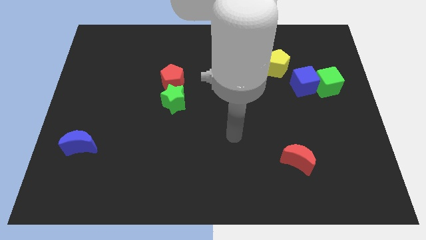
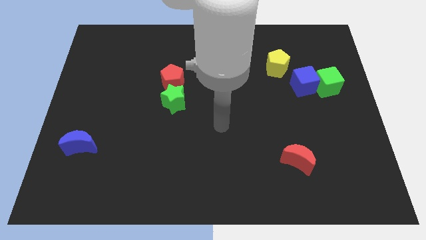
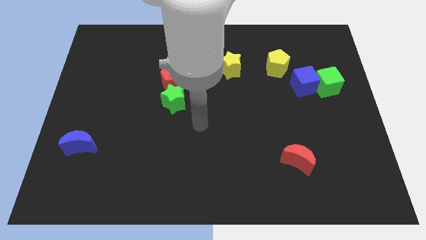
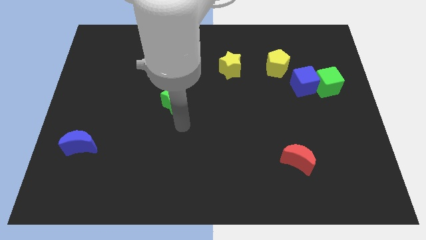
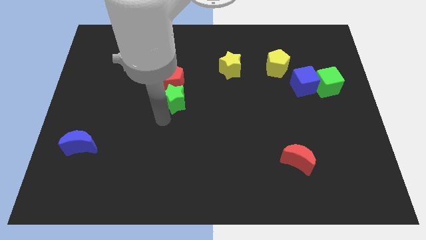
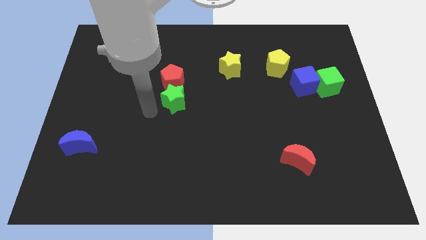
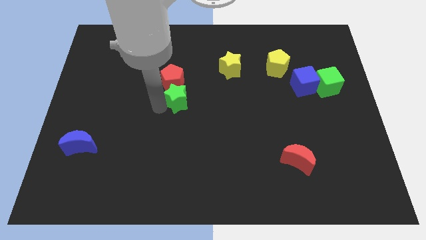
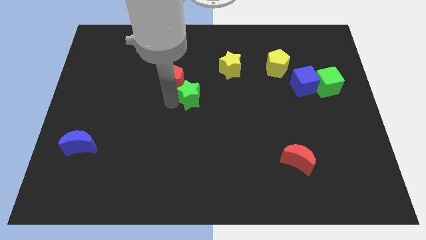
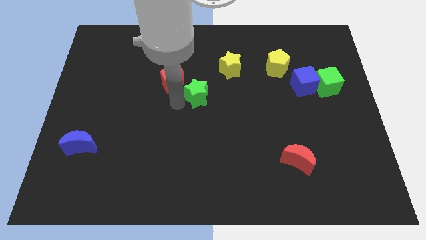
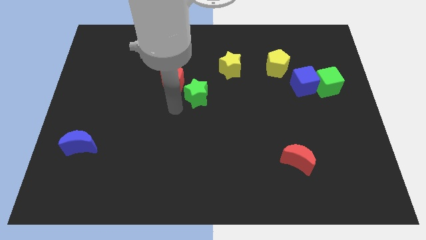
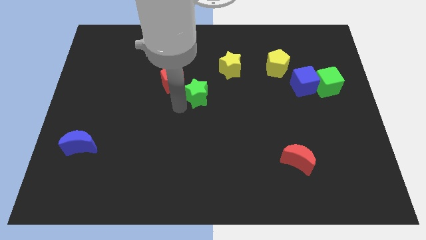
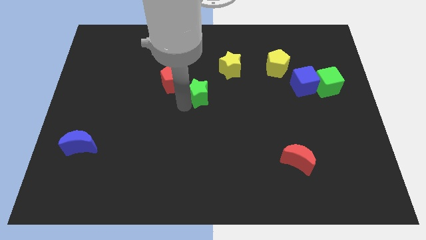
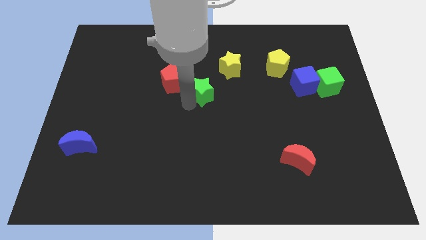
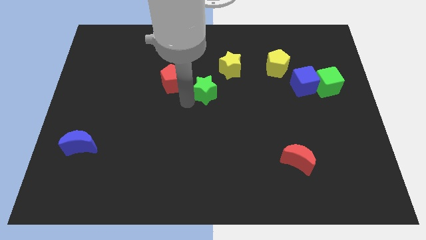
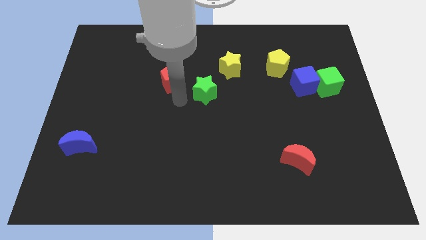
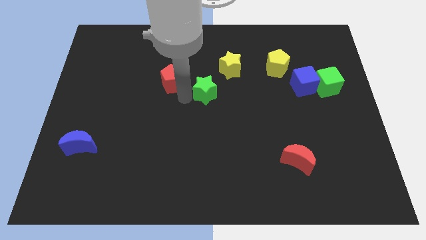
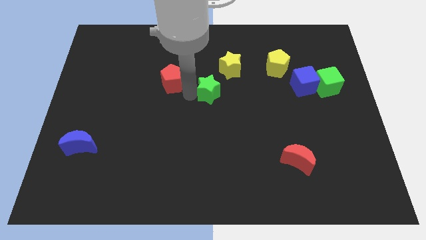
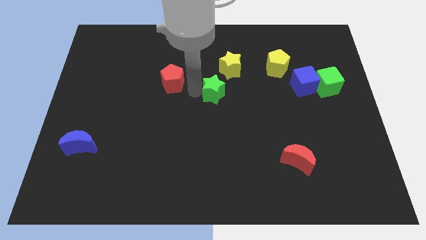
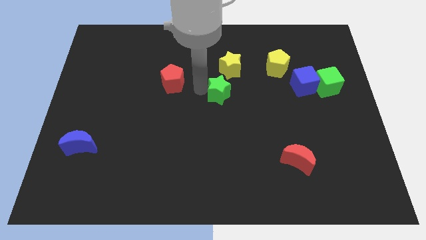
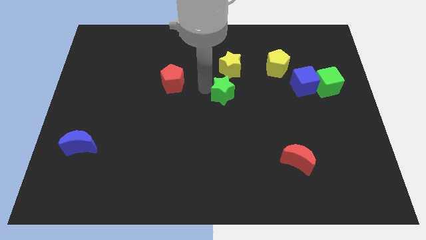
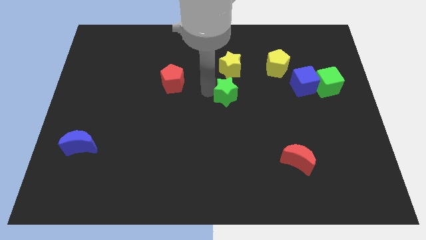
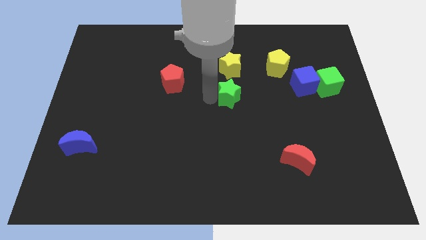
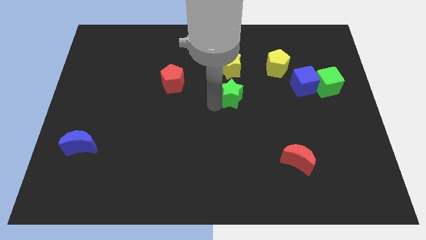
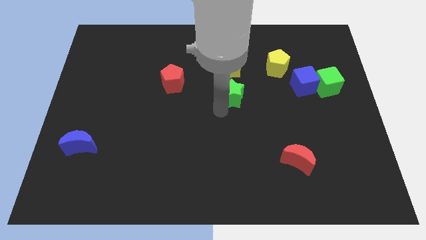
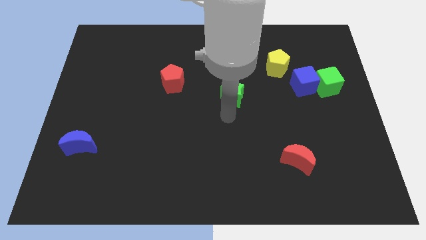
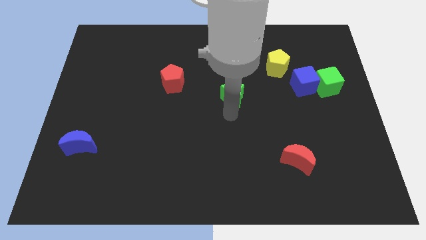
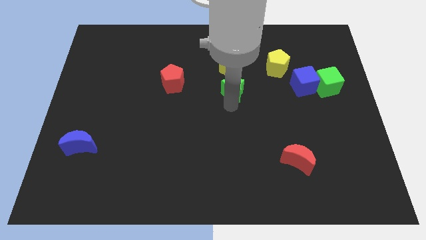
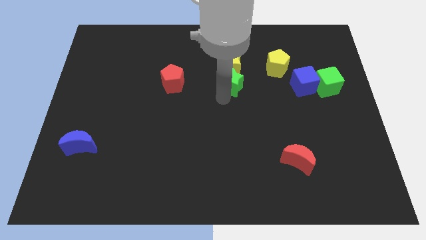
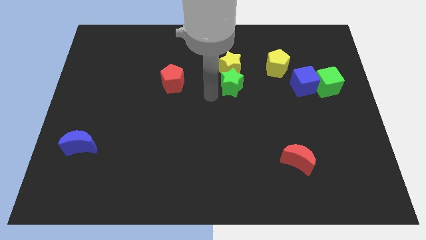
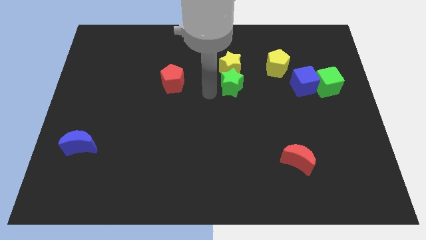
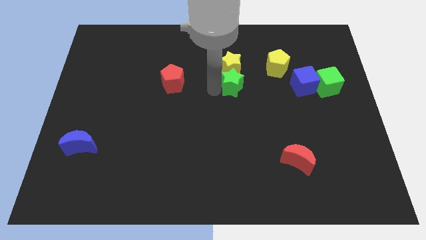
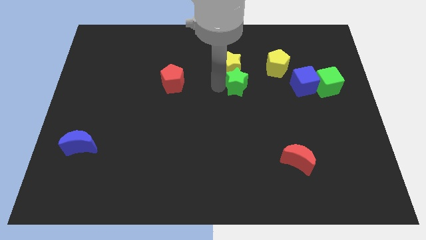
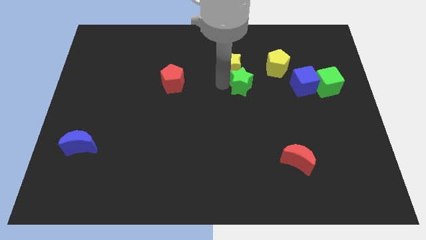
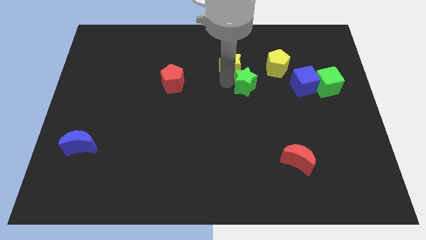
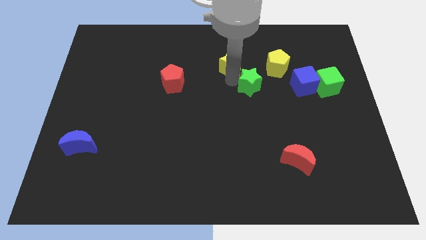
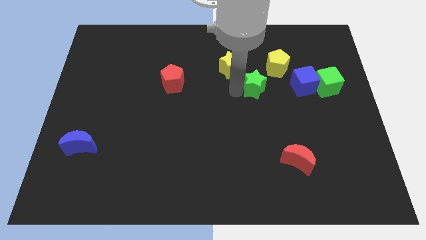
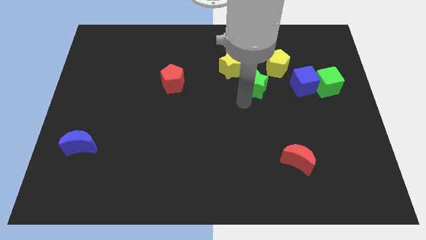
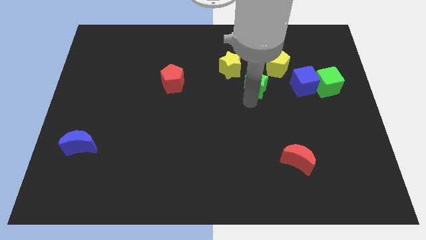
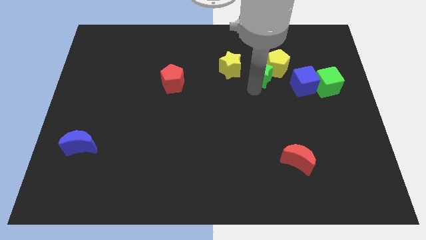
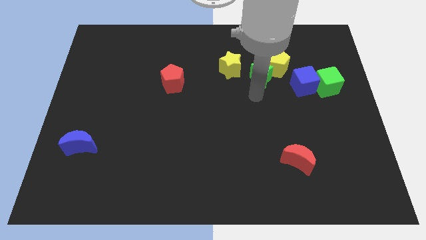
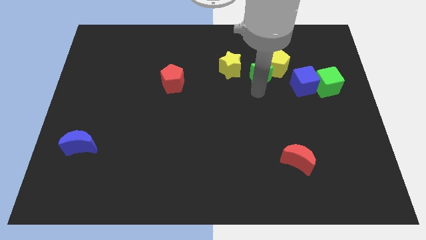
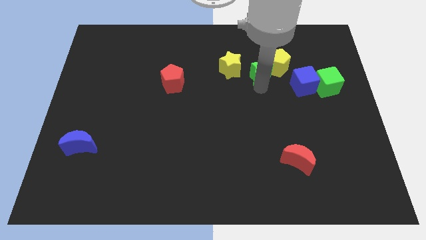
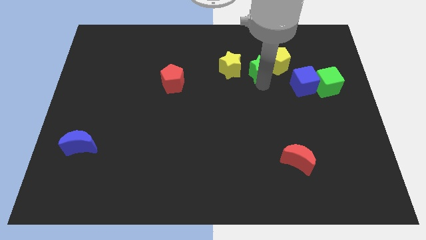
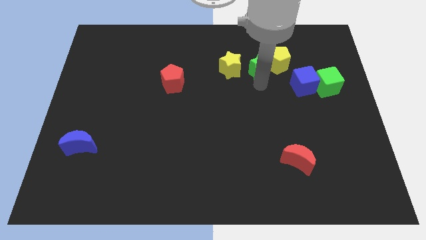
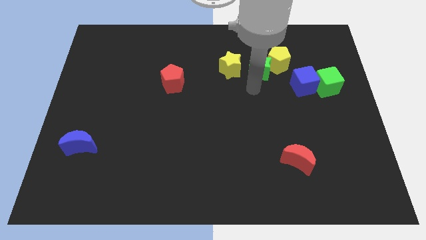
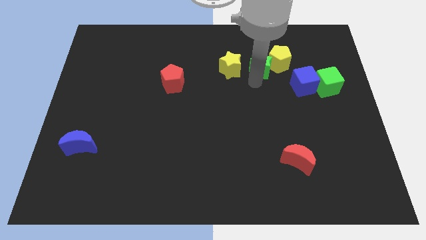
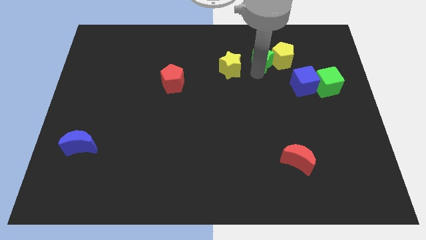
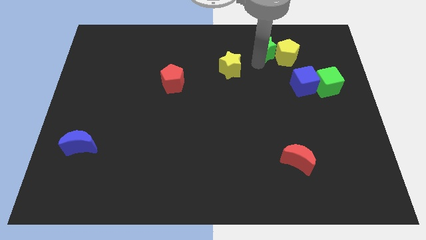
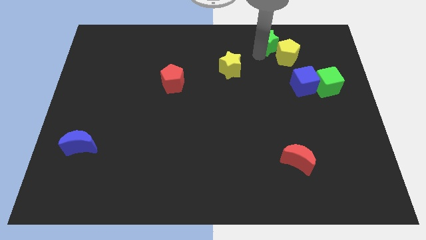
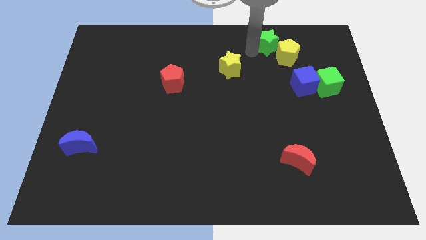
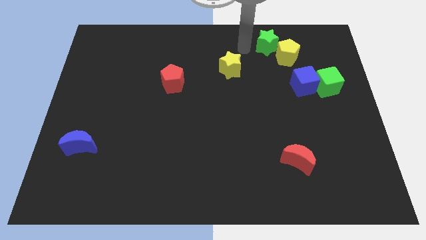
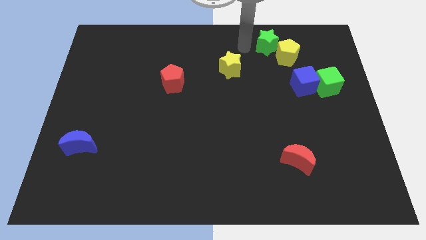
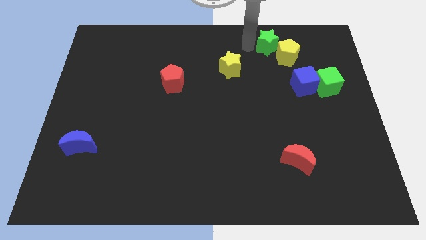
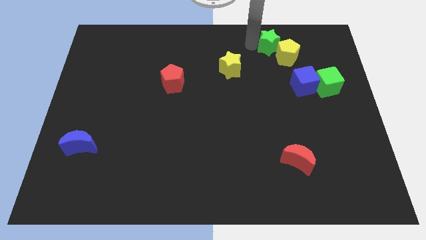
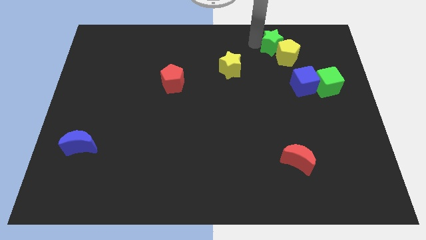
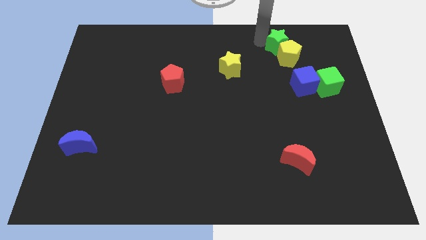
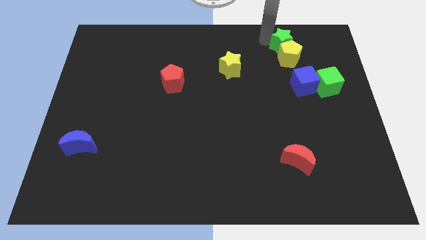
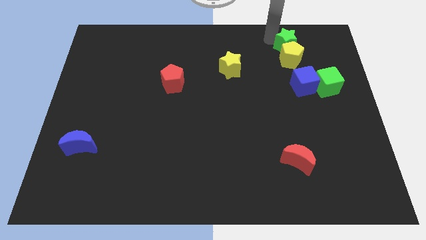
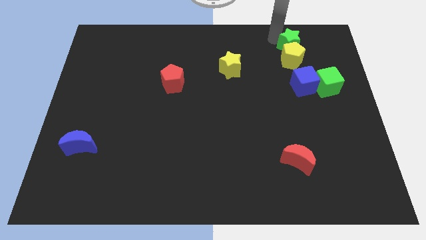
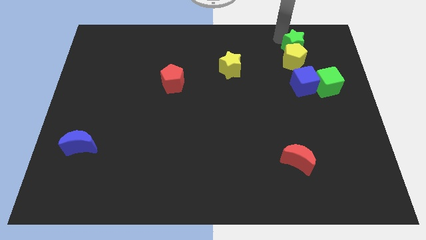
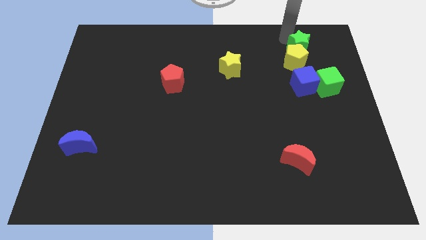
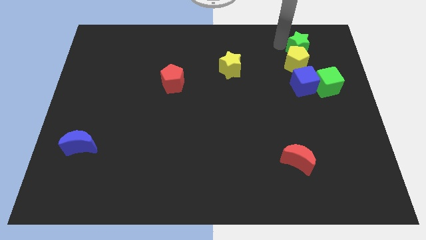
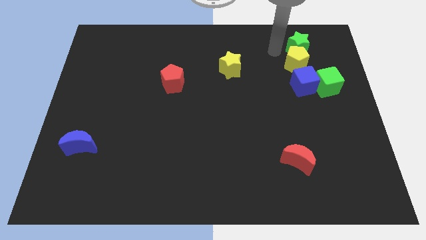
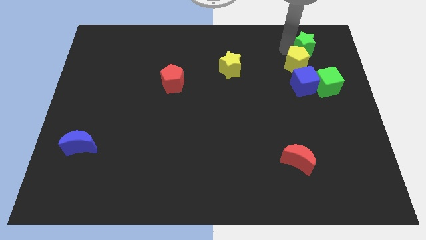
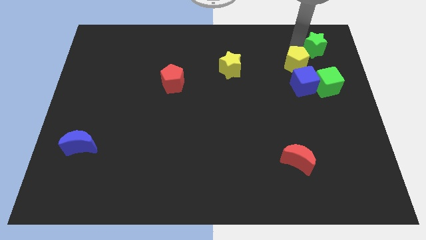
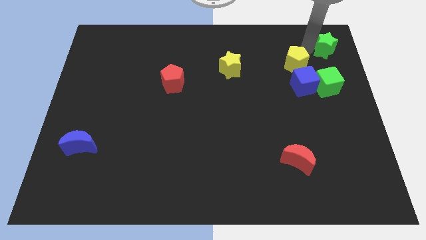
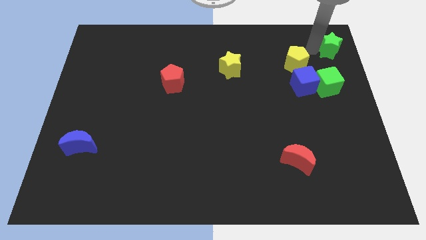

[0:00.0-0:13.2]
put the green star to the top right
